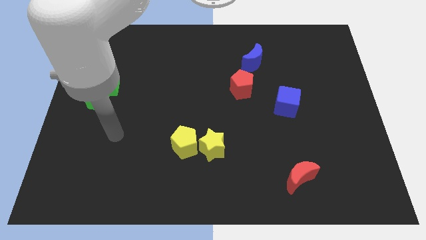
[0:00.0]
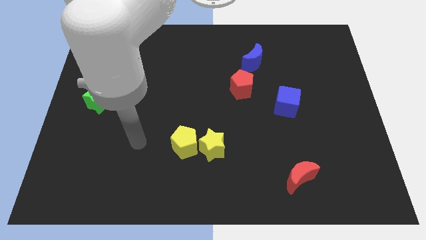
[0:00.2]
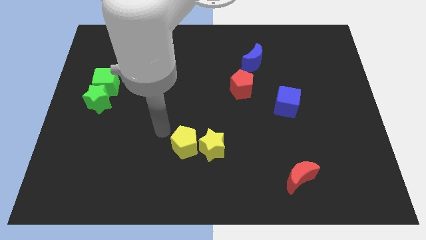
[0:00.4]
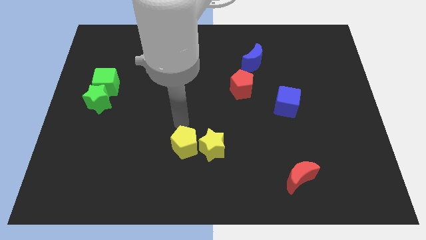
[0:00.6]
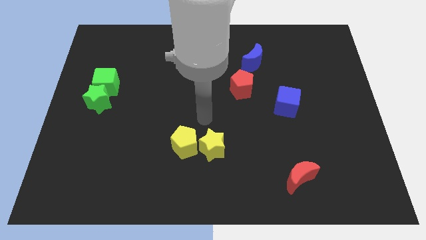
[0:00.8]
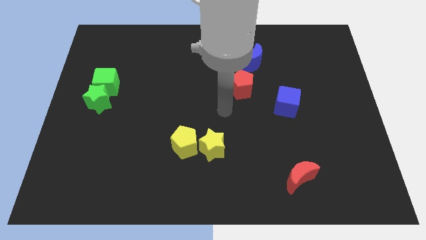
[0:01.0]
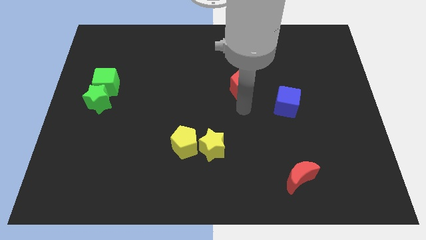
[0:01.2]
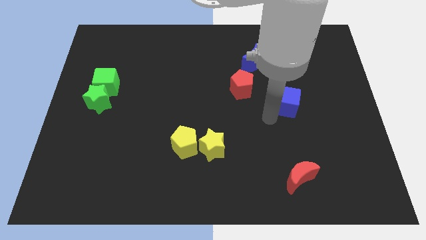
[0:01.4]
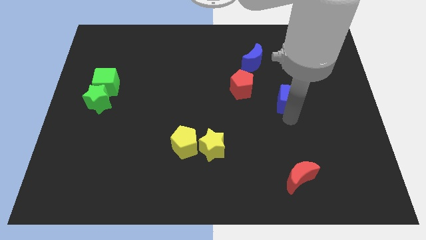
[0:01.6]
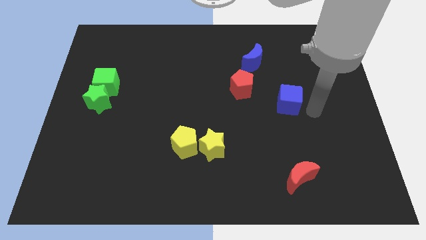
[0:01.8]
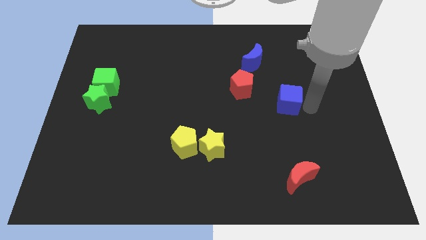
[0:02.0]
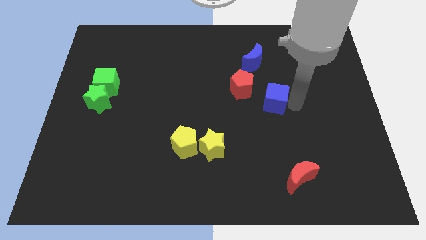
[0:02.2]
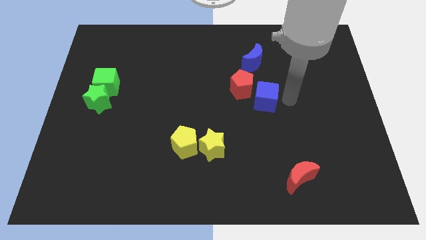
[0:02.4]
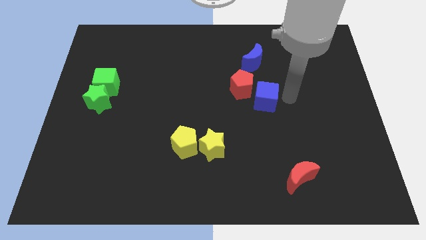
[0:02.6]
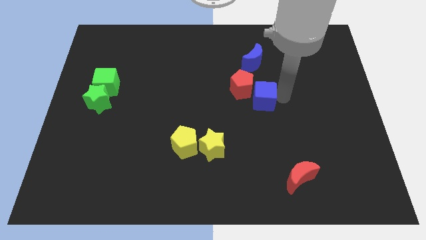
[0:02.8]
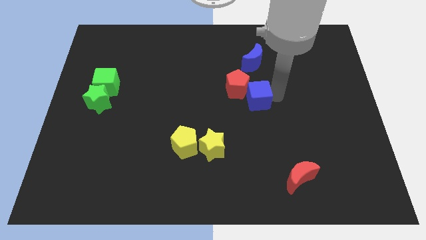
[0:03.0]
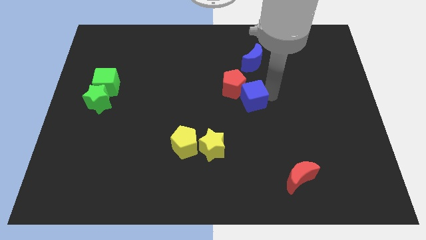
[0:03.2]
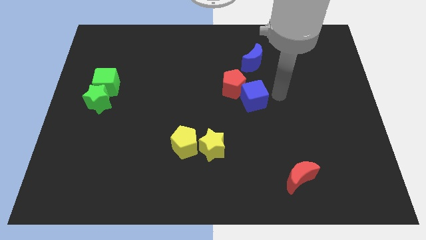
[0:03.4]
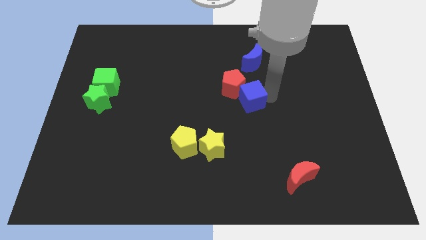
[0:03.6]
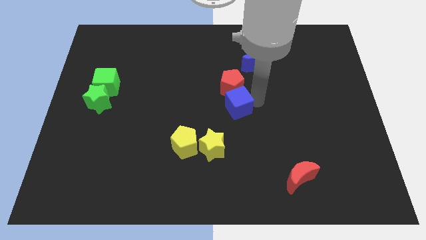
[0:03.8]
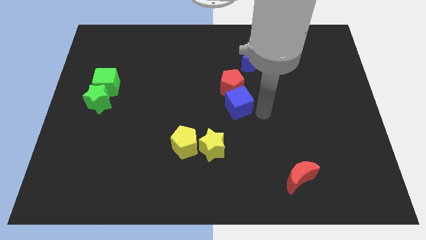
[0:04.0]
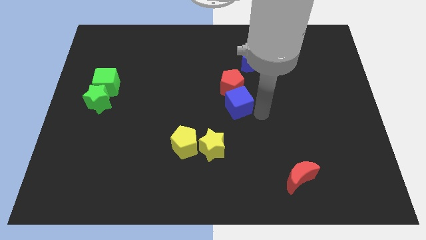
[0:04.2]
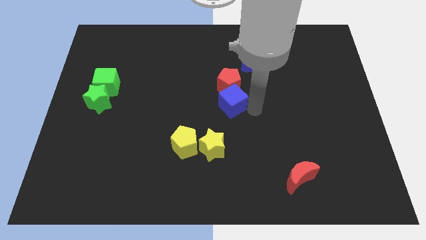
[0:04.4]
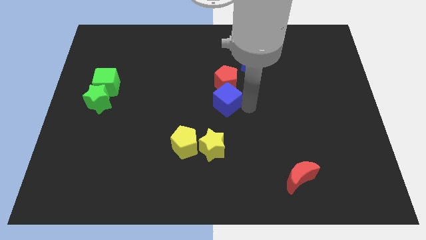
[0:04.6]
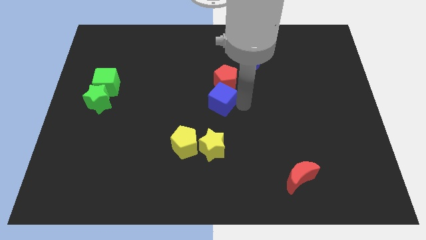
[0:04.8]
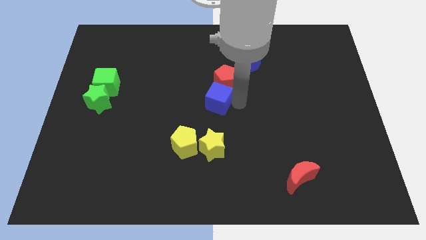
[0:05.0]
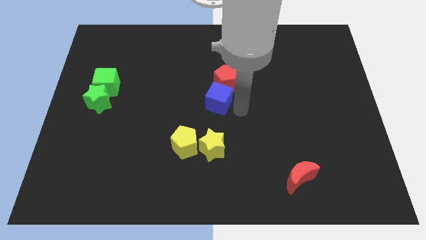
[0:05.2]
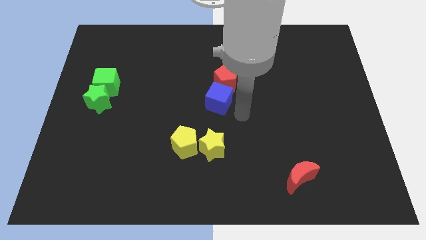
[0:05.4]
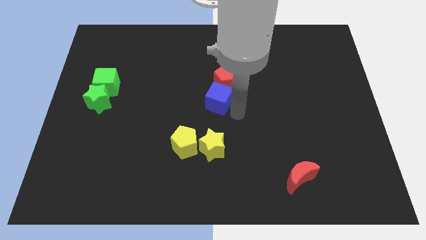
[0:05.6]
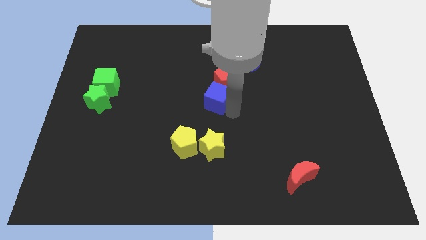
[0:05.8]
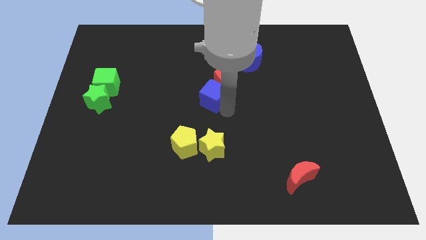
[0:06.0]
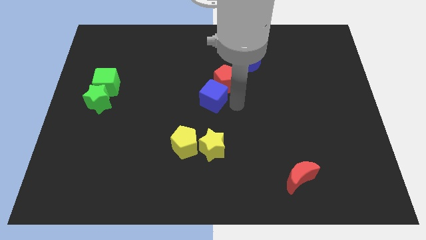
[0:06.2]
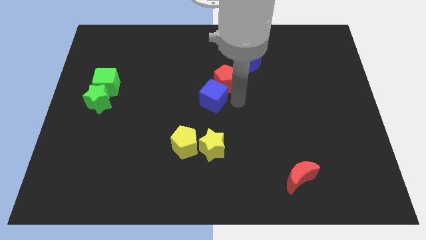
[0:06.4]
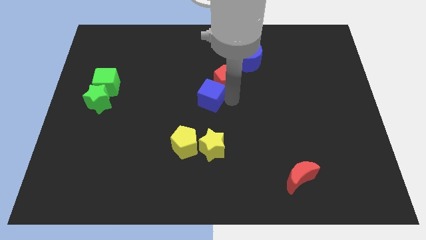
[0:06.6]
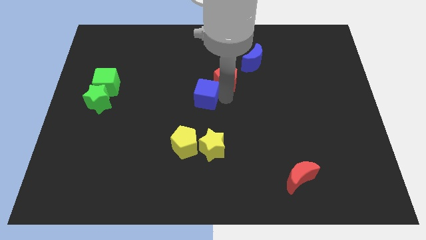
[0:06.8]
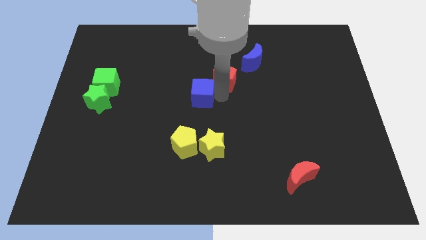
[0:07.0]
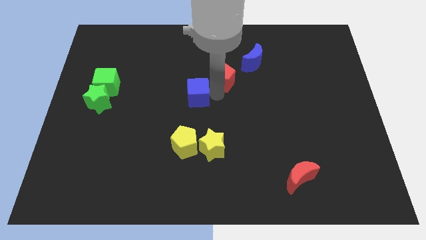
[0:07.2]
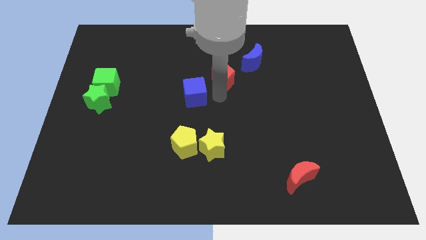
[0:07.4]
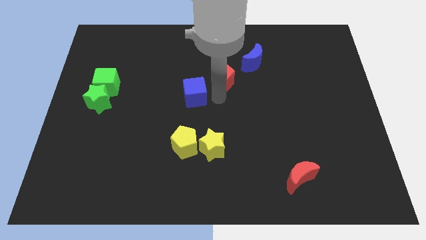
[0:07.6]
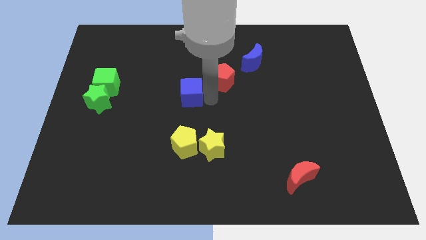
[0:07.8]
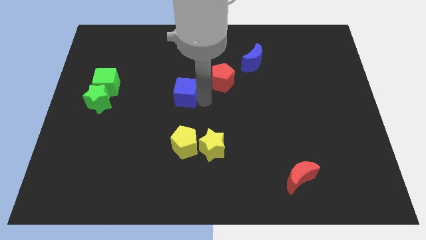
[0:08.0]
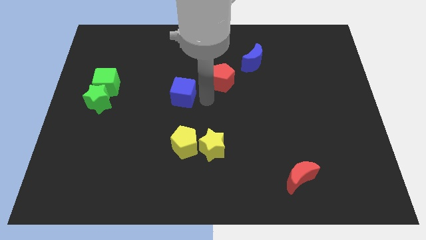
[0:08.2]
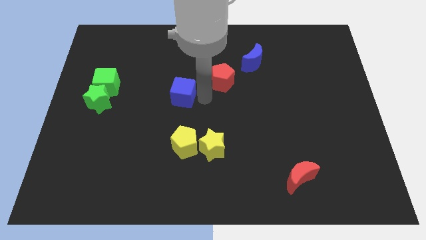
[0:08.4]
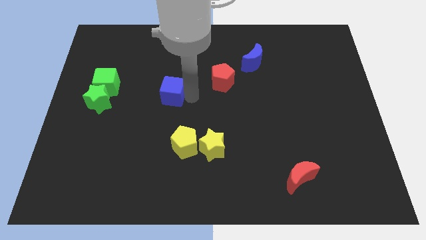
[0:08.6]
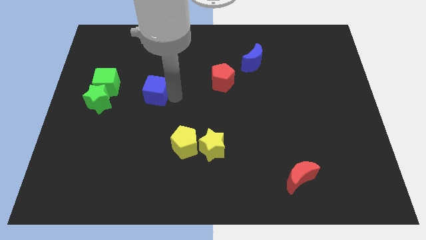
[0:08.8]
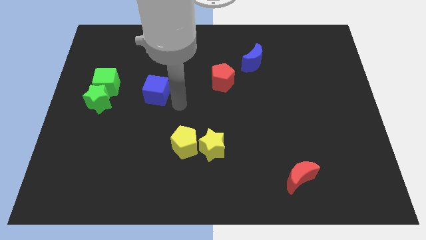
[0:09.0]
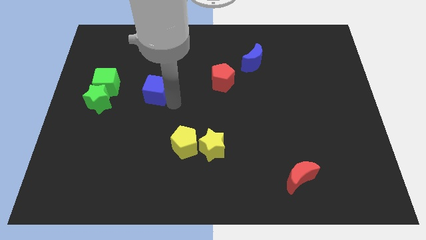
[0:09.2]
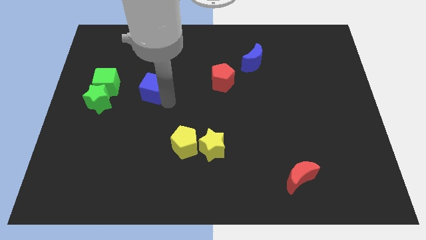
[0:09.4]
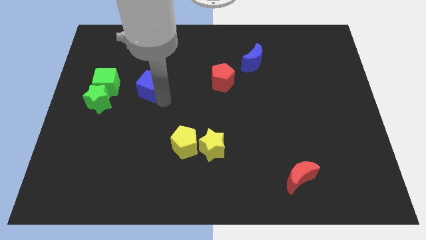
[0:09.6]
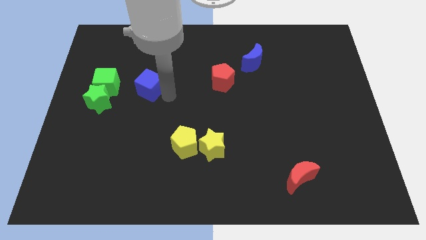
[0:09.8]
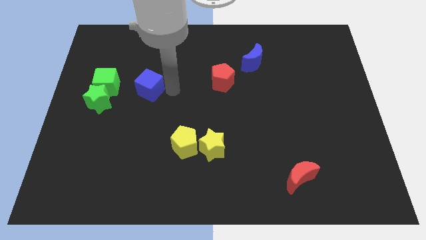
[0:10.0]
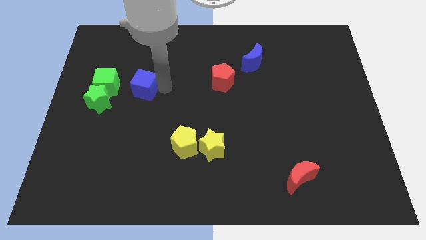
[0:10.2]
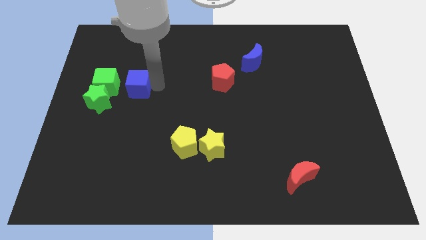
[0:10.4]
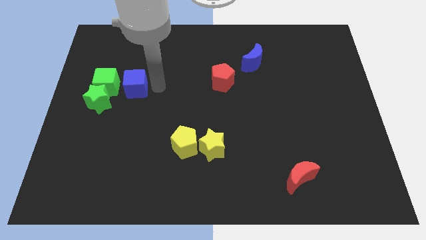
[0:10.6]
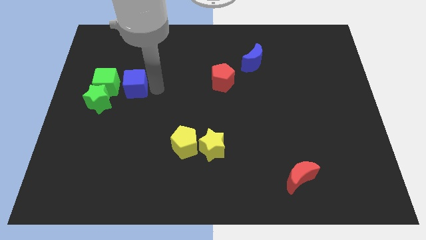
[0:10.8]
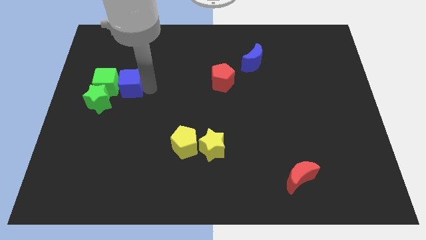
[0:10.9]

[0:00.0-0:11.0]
push the blue cube towards the green cube

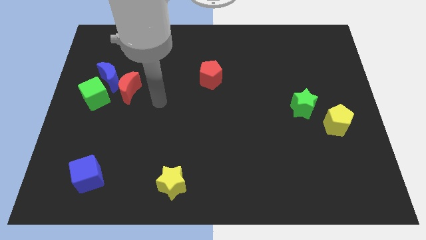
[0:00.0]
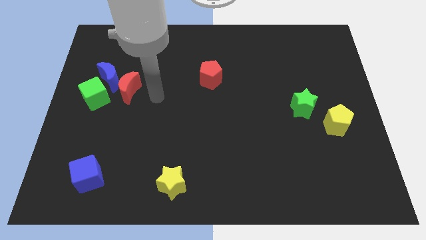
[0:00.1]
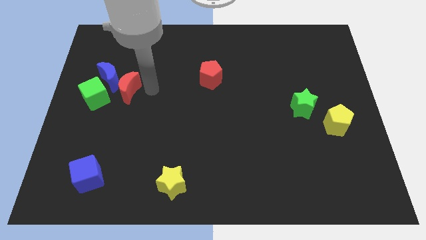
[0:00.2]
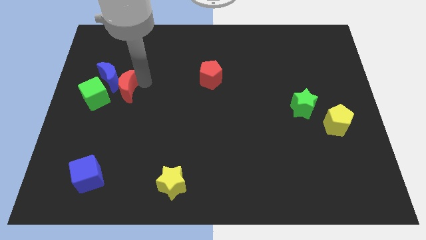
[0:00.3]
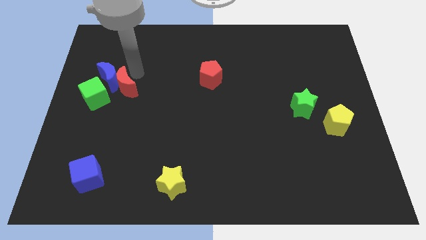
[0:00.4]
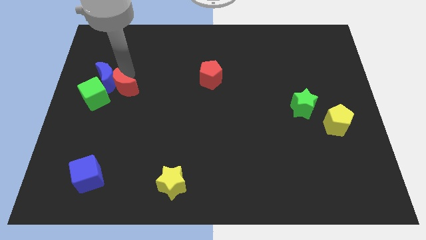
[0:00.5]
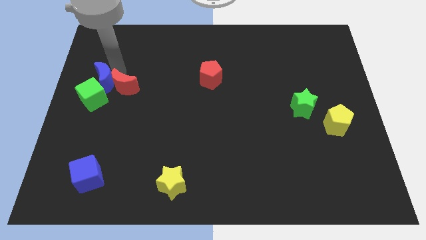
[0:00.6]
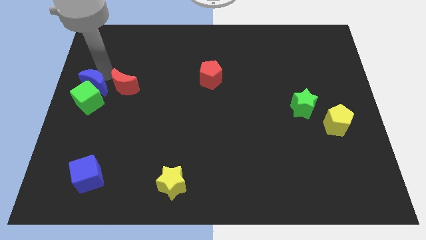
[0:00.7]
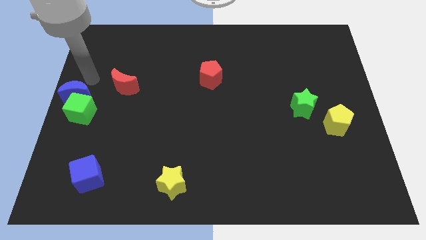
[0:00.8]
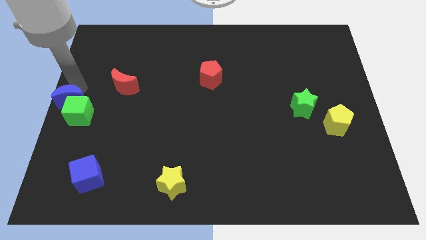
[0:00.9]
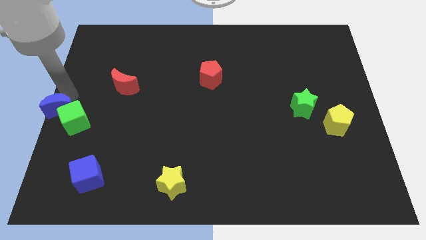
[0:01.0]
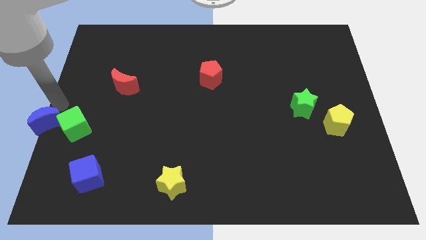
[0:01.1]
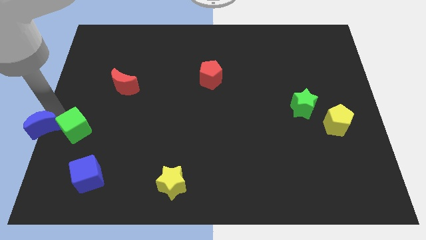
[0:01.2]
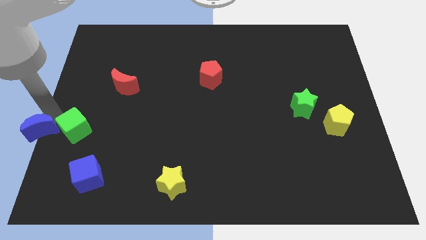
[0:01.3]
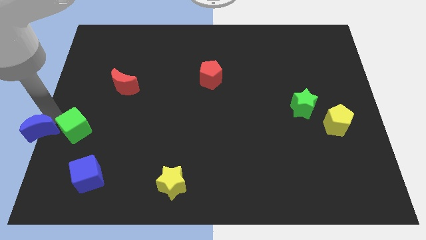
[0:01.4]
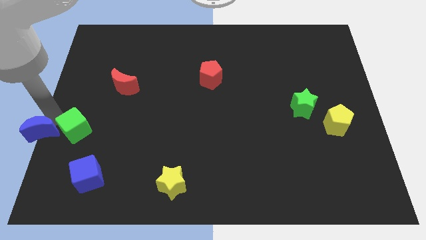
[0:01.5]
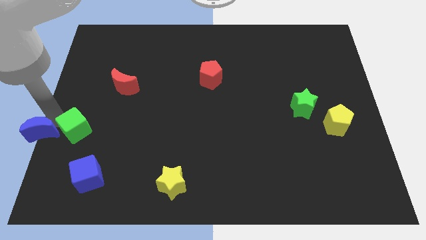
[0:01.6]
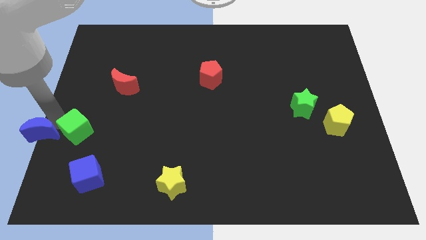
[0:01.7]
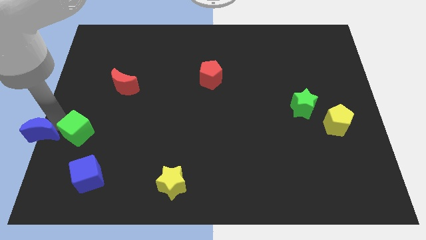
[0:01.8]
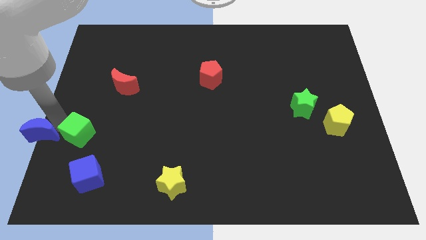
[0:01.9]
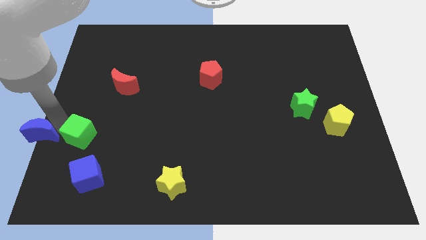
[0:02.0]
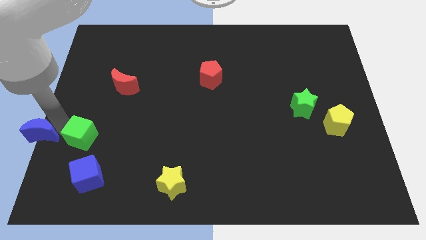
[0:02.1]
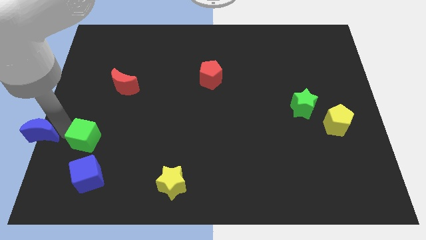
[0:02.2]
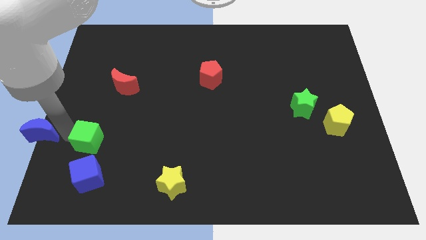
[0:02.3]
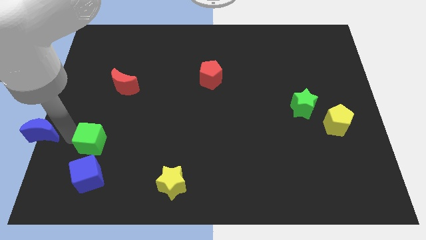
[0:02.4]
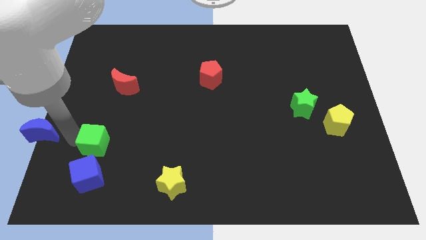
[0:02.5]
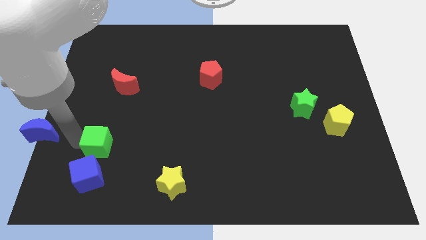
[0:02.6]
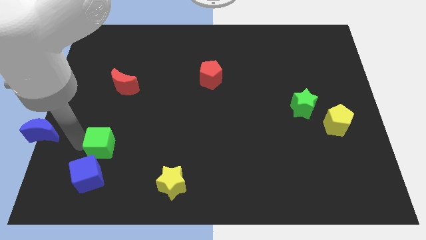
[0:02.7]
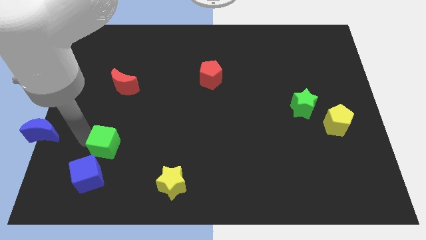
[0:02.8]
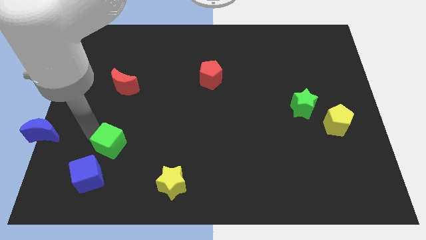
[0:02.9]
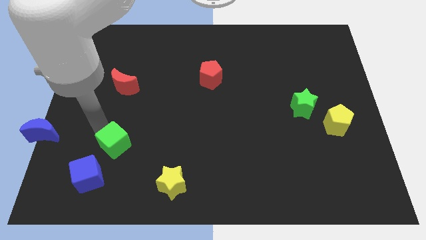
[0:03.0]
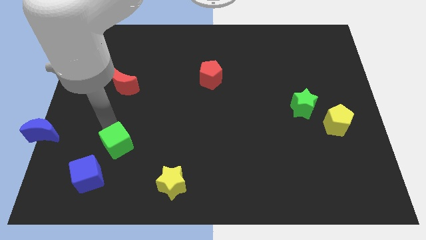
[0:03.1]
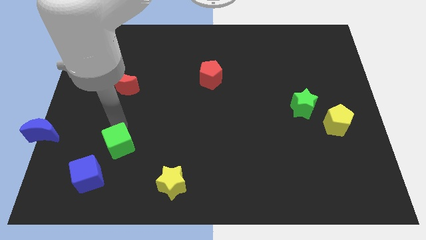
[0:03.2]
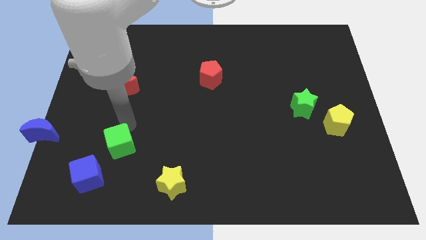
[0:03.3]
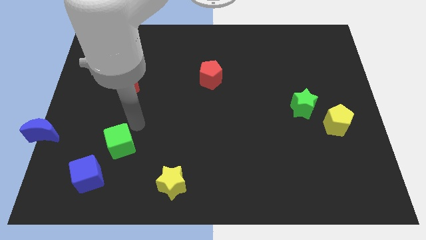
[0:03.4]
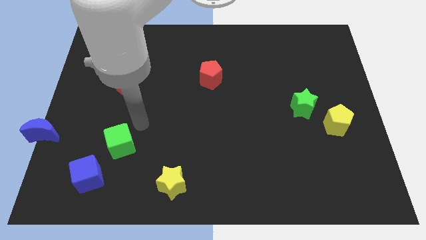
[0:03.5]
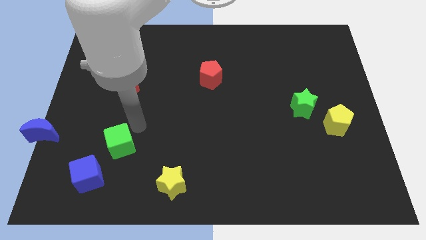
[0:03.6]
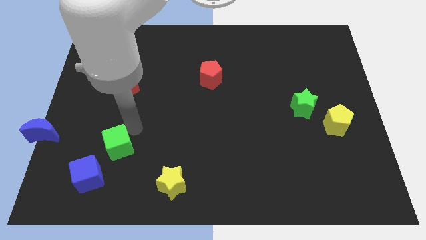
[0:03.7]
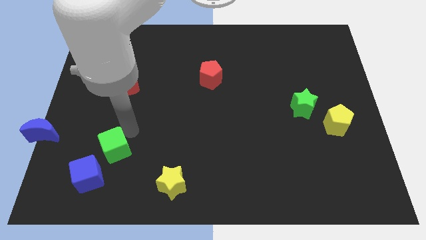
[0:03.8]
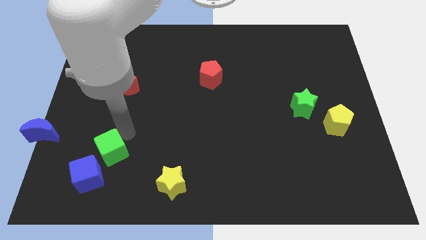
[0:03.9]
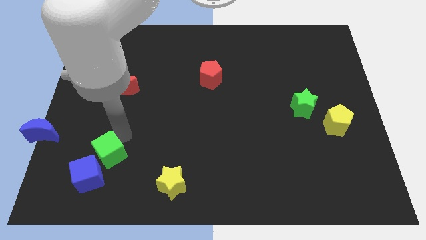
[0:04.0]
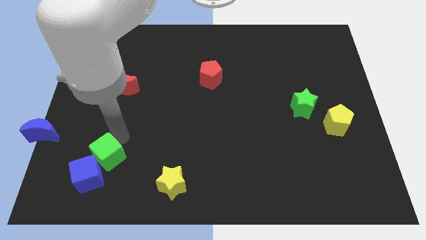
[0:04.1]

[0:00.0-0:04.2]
slide the green cube next to the blue cube
